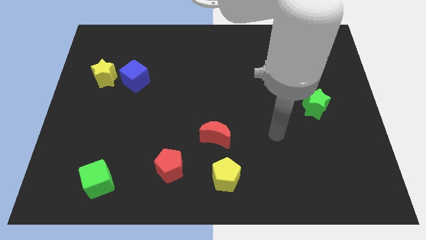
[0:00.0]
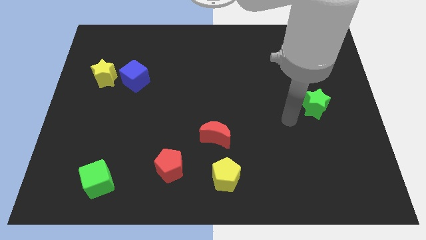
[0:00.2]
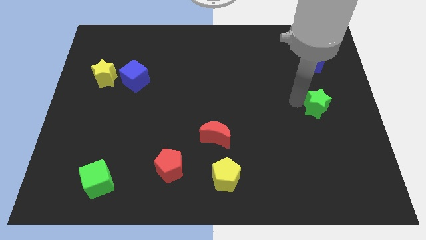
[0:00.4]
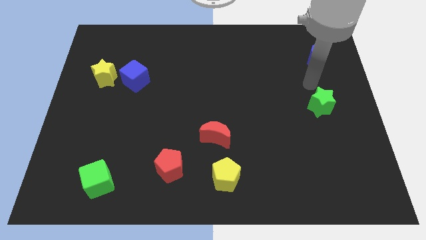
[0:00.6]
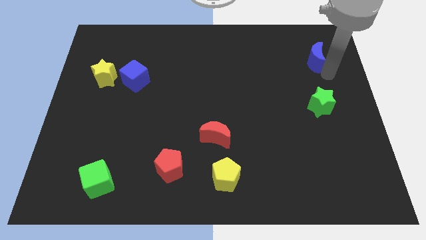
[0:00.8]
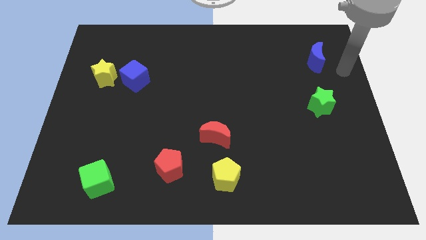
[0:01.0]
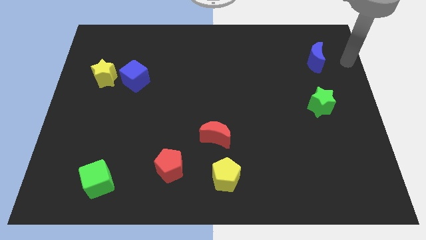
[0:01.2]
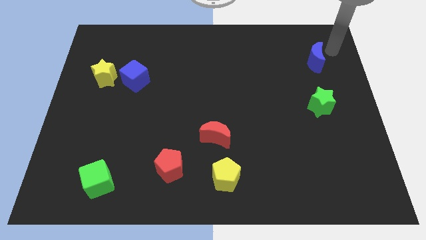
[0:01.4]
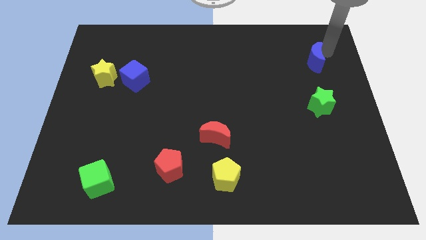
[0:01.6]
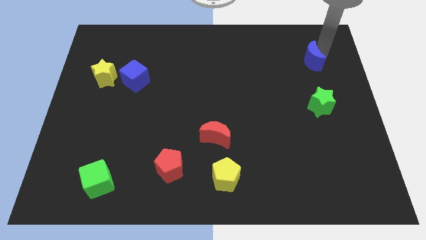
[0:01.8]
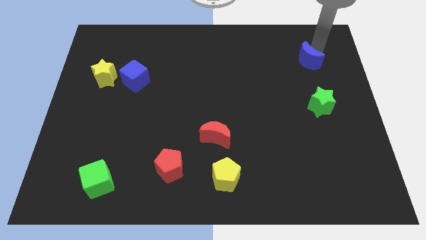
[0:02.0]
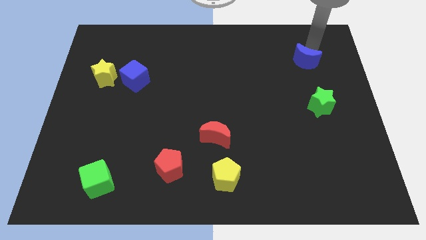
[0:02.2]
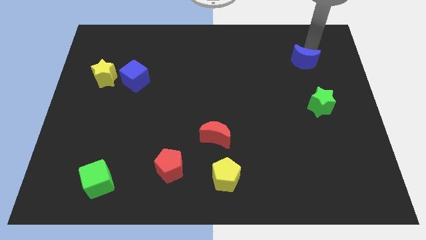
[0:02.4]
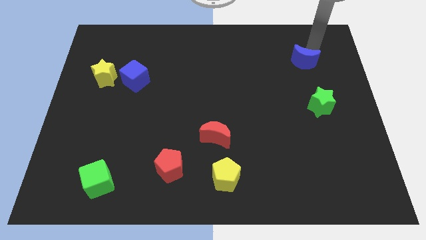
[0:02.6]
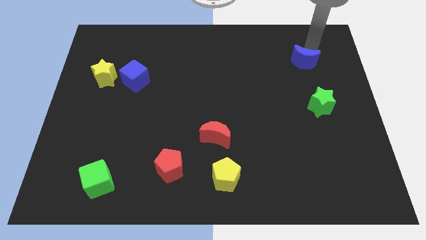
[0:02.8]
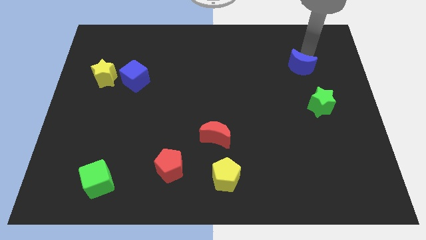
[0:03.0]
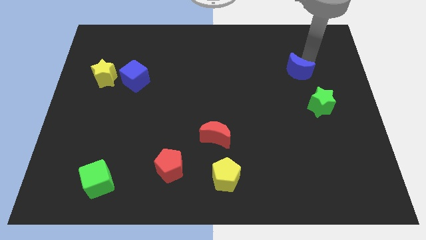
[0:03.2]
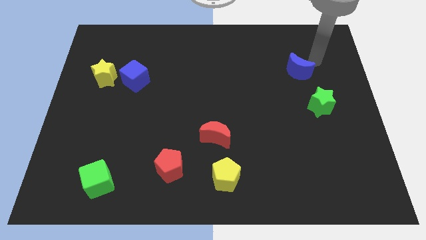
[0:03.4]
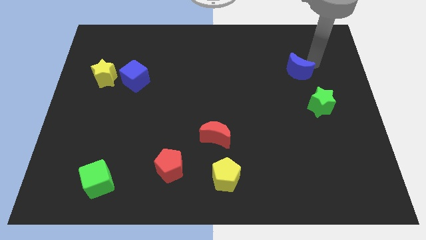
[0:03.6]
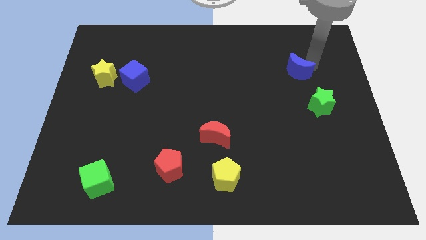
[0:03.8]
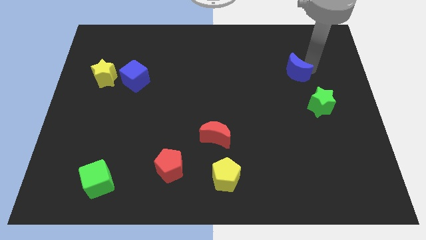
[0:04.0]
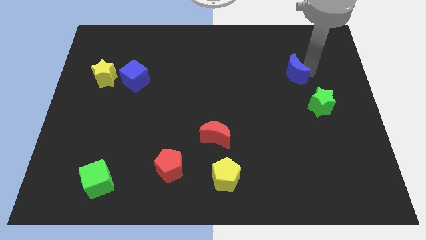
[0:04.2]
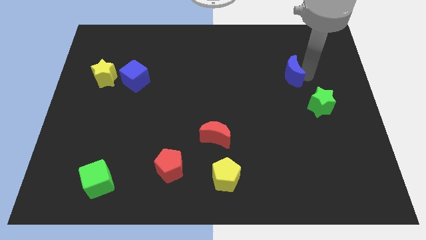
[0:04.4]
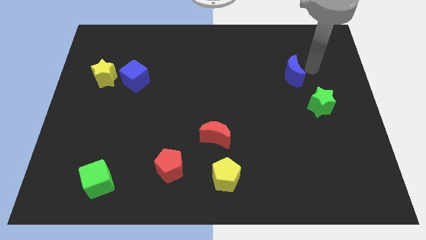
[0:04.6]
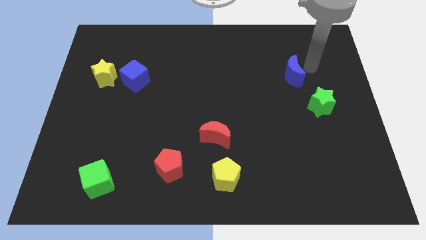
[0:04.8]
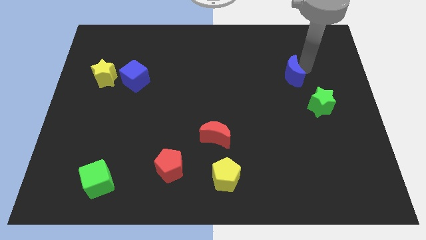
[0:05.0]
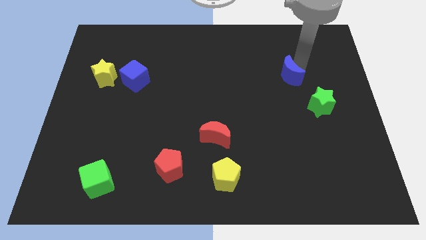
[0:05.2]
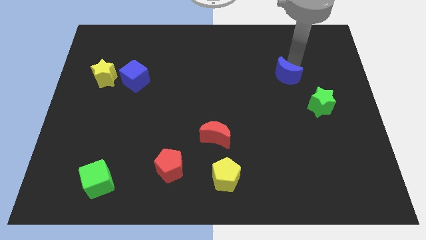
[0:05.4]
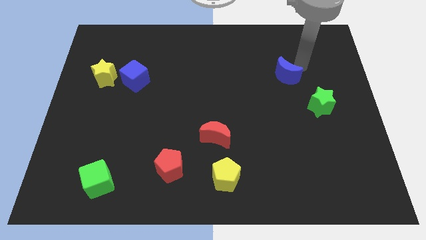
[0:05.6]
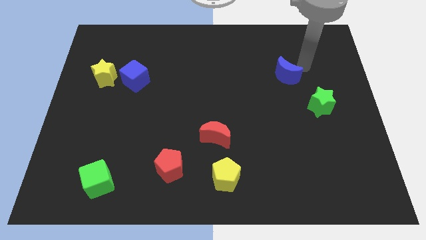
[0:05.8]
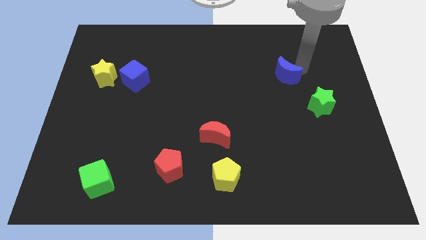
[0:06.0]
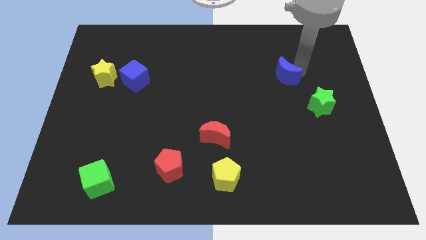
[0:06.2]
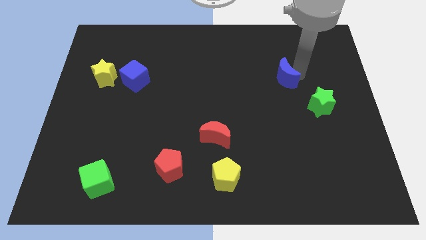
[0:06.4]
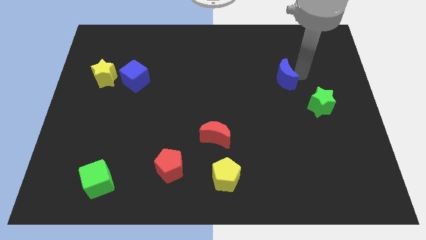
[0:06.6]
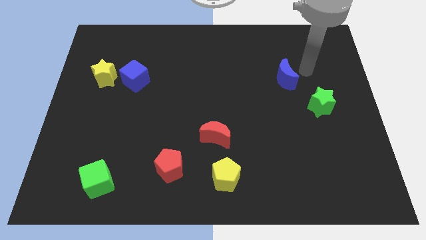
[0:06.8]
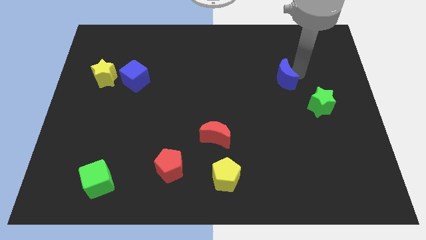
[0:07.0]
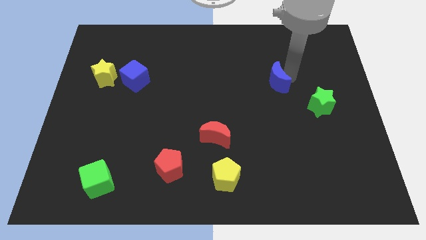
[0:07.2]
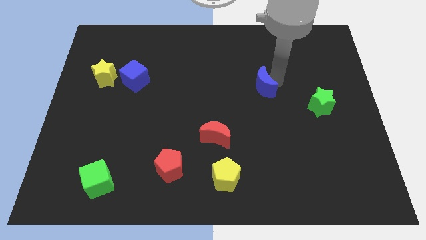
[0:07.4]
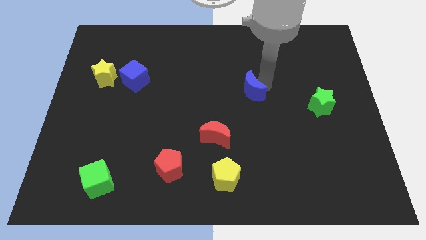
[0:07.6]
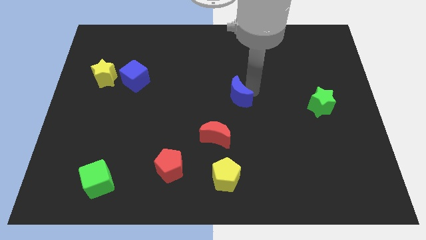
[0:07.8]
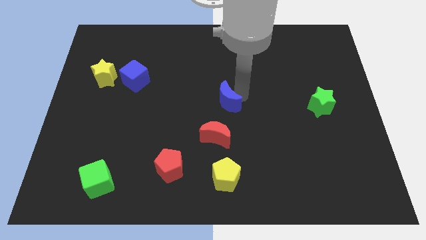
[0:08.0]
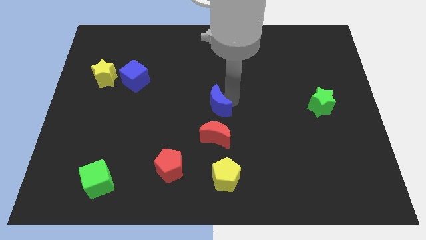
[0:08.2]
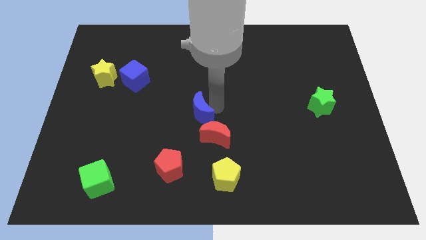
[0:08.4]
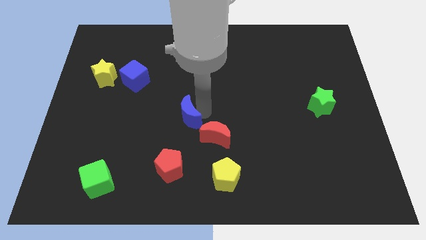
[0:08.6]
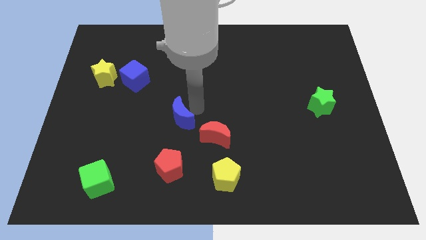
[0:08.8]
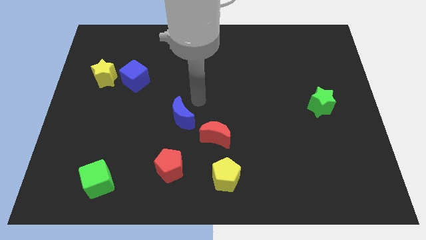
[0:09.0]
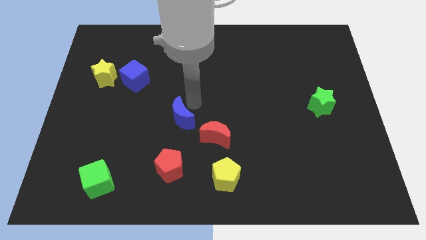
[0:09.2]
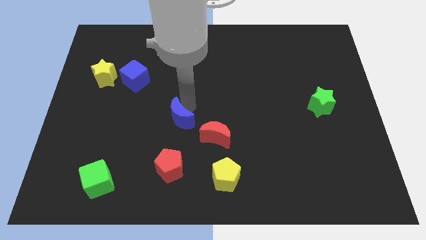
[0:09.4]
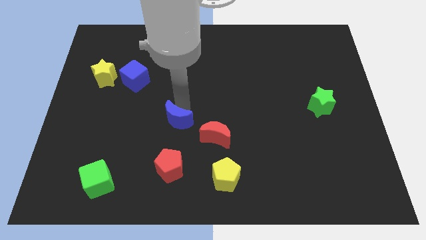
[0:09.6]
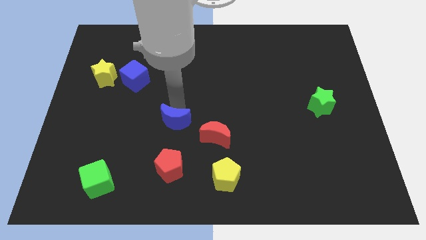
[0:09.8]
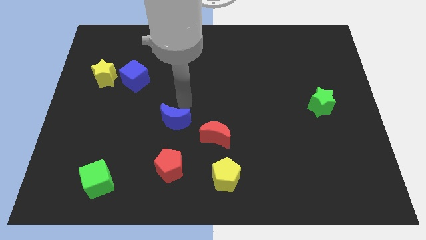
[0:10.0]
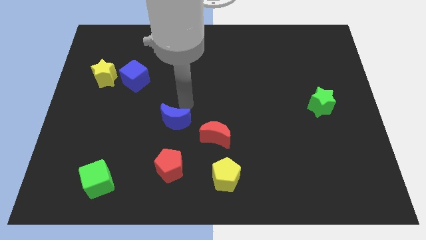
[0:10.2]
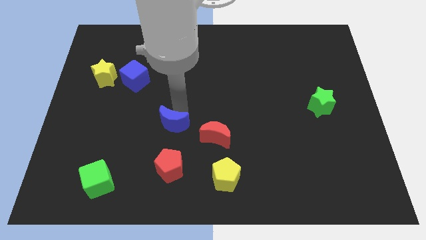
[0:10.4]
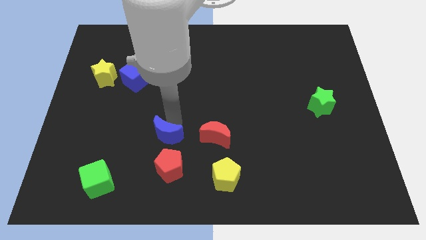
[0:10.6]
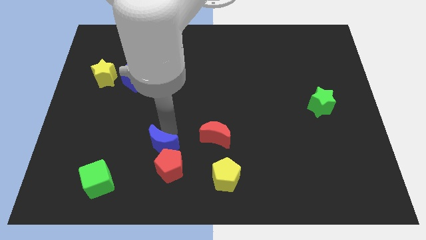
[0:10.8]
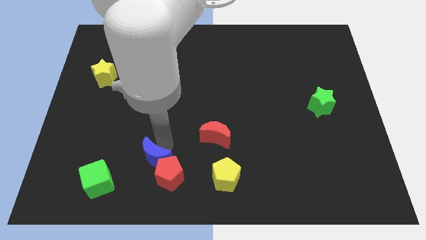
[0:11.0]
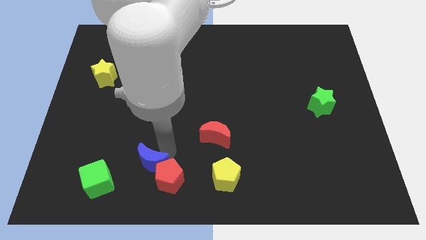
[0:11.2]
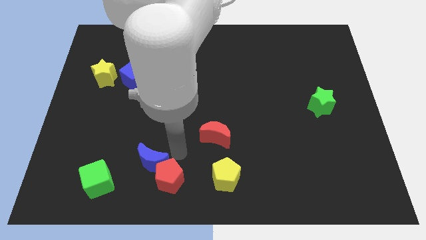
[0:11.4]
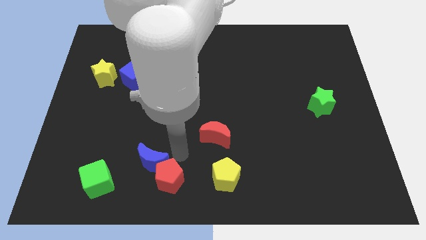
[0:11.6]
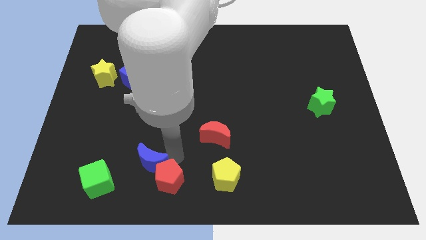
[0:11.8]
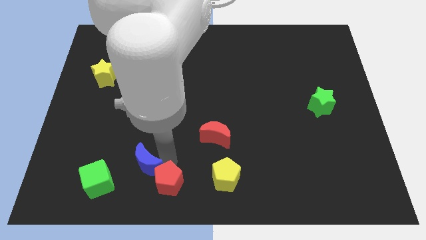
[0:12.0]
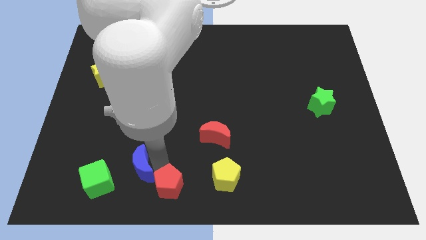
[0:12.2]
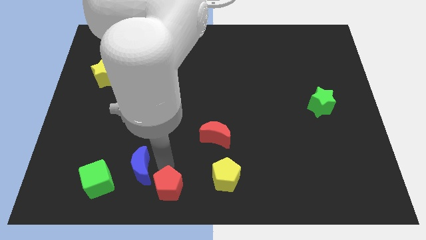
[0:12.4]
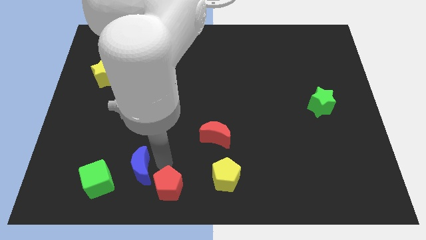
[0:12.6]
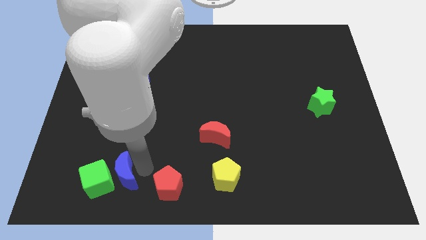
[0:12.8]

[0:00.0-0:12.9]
slide the blue moon to the green cube

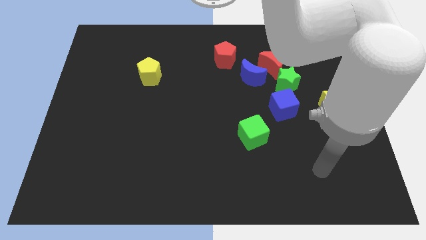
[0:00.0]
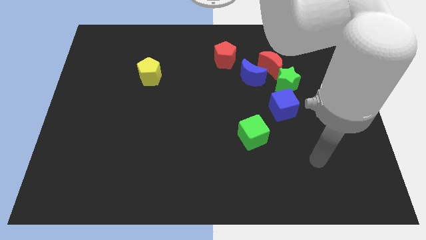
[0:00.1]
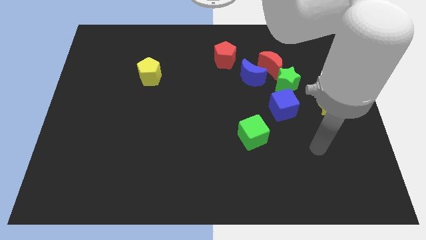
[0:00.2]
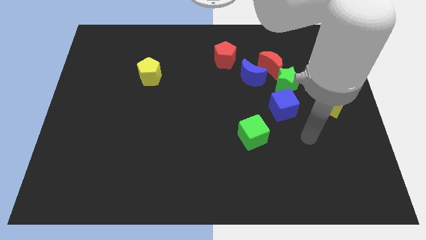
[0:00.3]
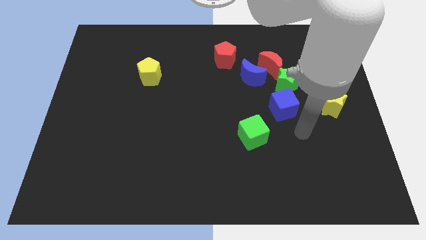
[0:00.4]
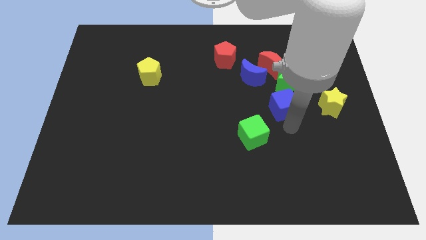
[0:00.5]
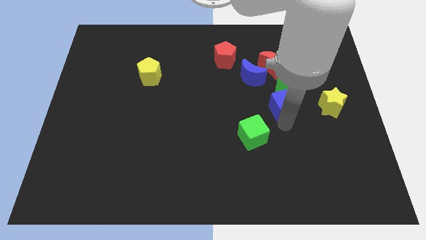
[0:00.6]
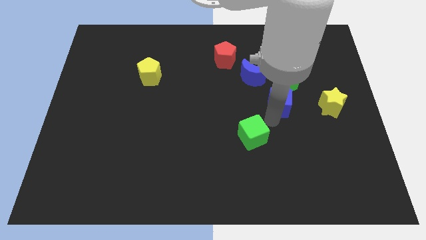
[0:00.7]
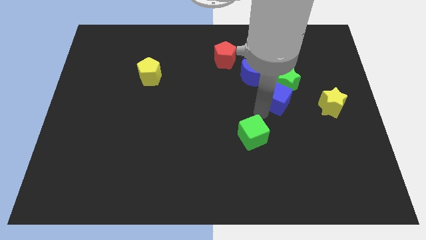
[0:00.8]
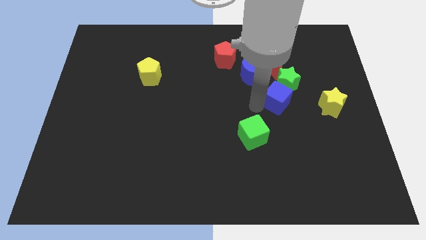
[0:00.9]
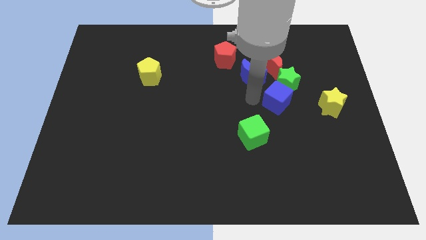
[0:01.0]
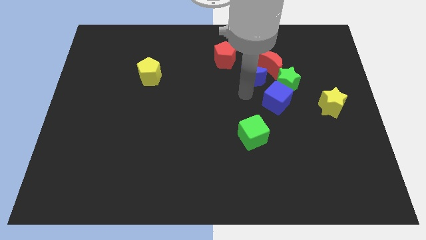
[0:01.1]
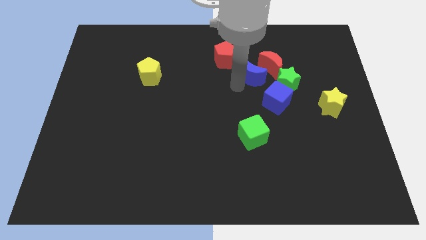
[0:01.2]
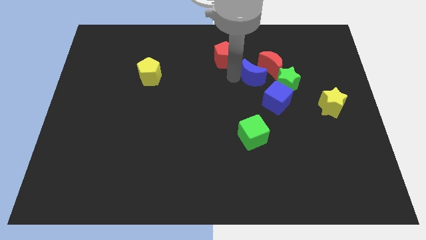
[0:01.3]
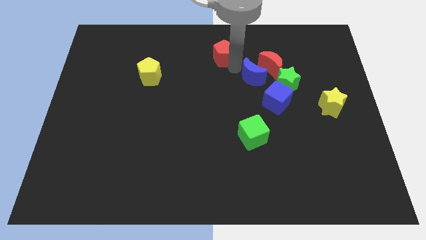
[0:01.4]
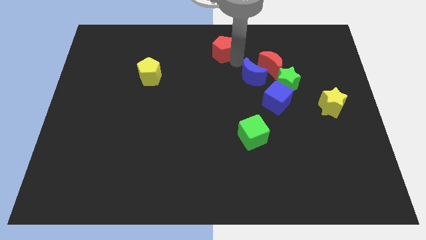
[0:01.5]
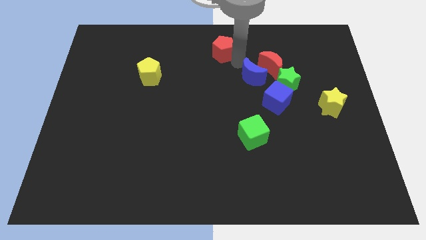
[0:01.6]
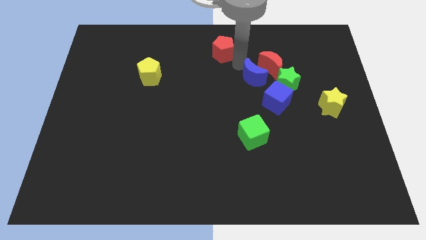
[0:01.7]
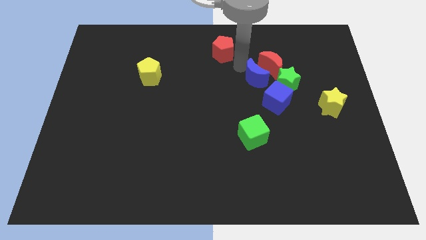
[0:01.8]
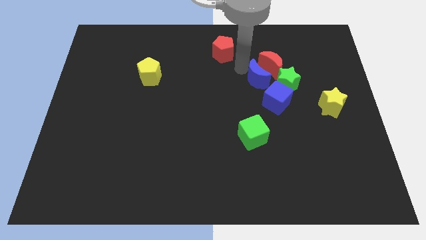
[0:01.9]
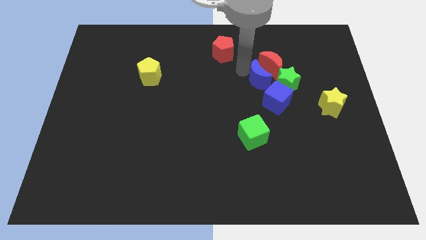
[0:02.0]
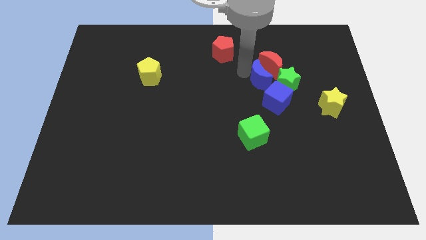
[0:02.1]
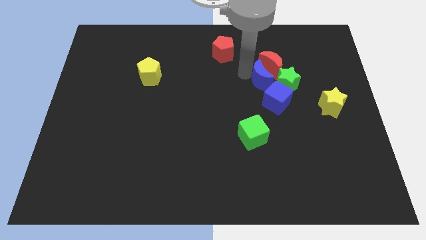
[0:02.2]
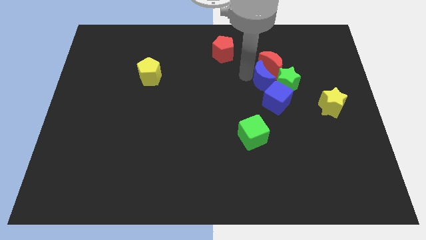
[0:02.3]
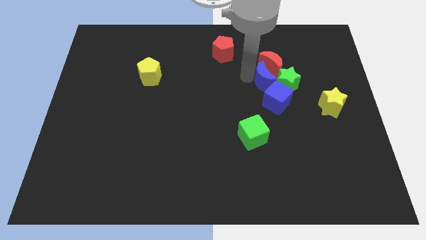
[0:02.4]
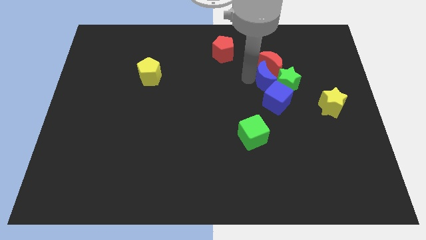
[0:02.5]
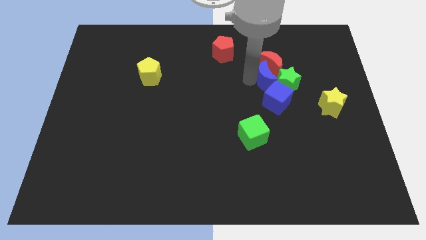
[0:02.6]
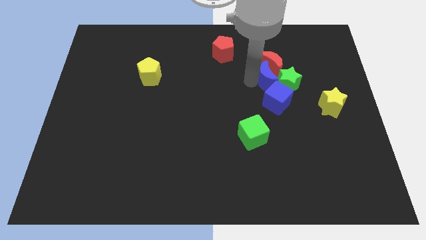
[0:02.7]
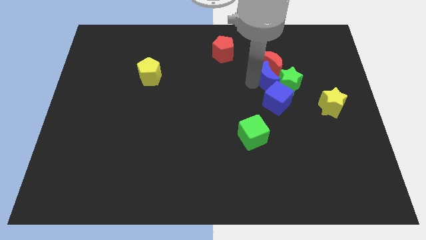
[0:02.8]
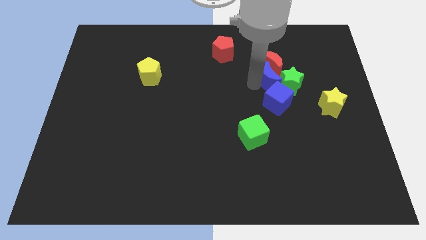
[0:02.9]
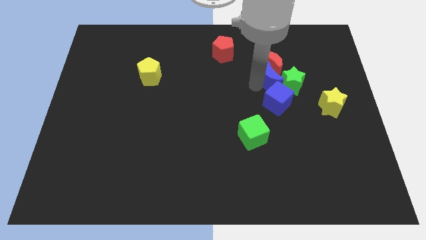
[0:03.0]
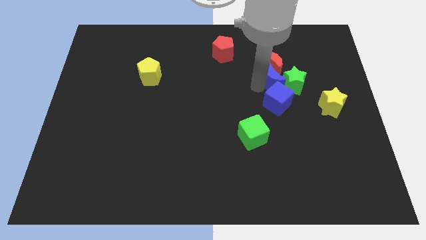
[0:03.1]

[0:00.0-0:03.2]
put the blue moon to the blue cube
